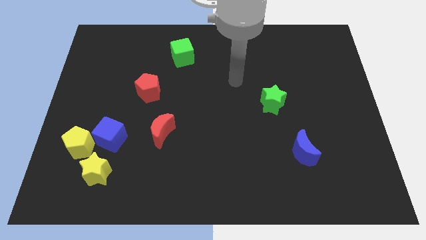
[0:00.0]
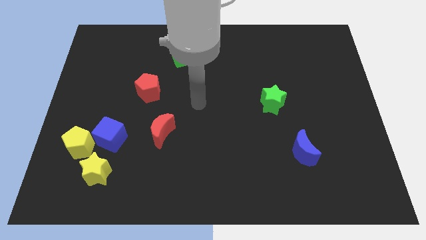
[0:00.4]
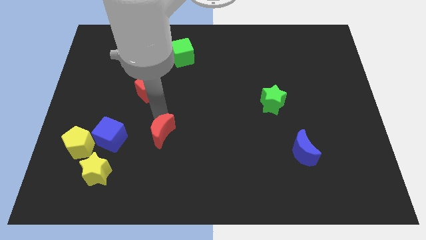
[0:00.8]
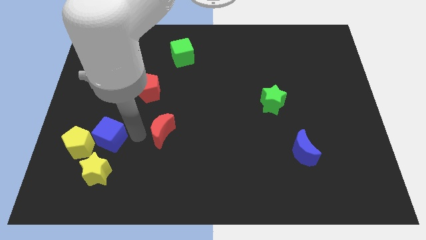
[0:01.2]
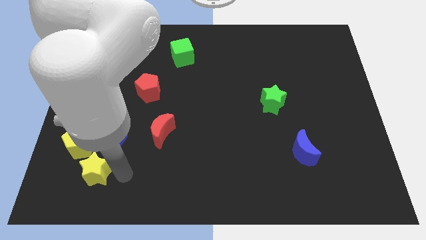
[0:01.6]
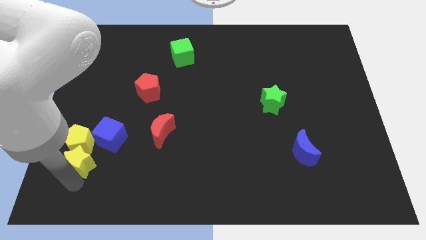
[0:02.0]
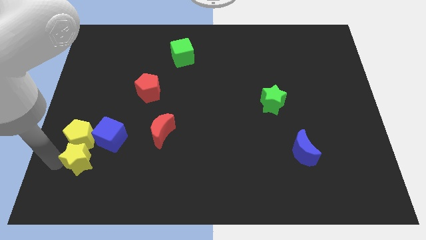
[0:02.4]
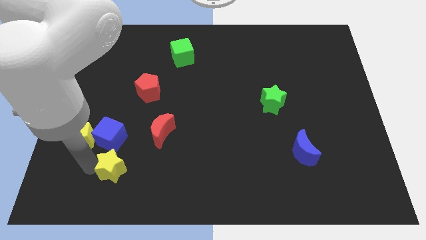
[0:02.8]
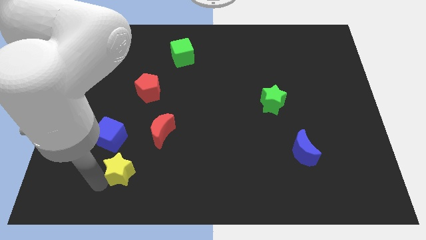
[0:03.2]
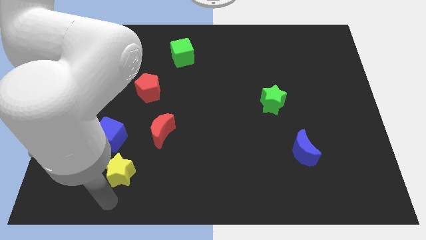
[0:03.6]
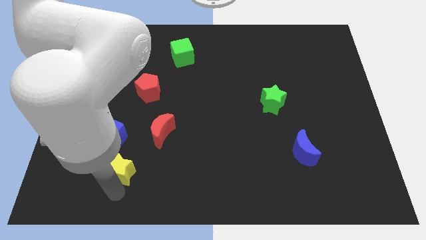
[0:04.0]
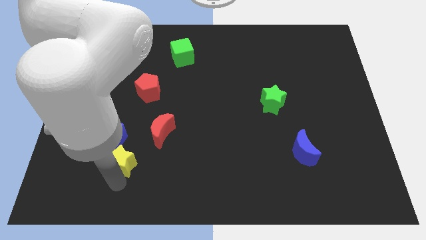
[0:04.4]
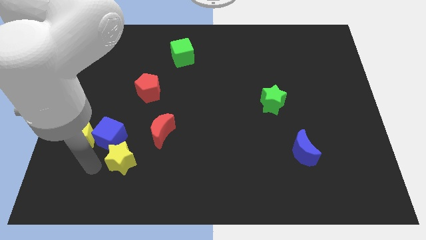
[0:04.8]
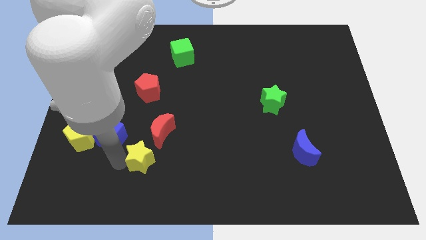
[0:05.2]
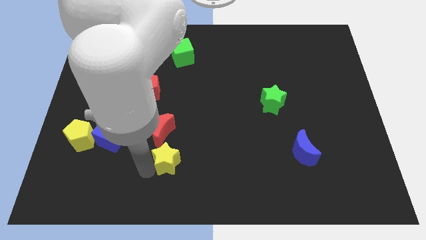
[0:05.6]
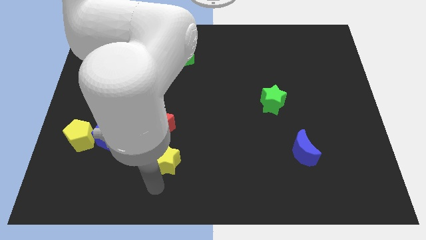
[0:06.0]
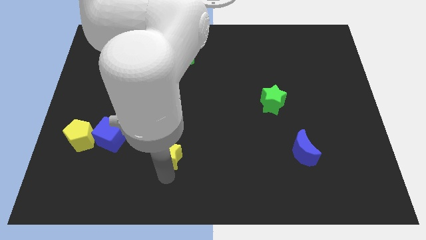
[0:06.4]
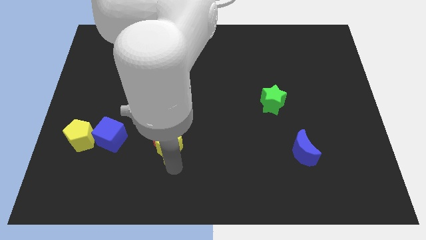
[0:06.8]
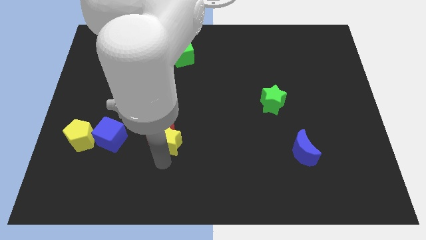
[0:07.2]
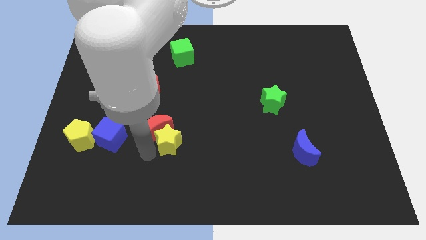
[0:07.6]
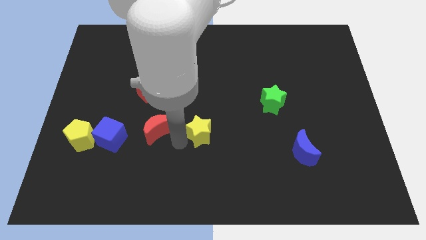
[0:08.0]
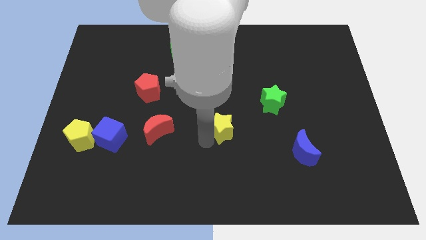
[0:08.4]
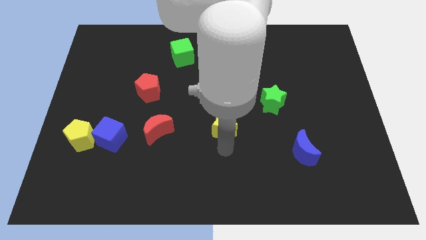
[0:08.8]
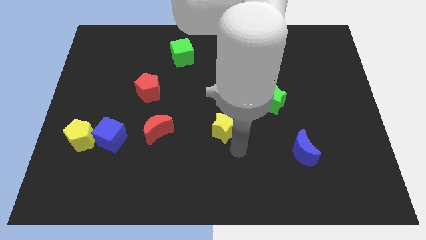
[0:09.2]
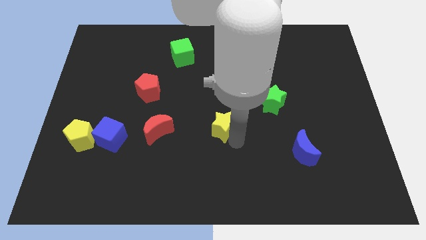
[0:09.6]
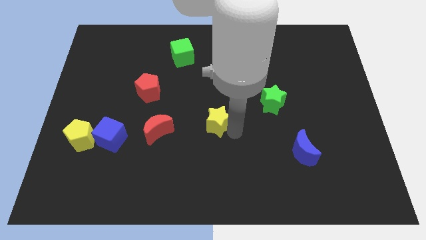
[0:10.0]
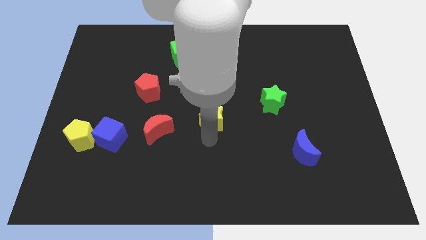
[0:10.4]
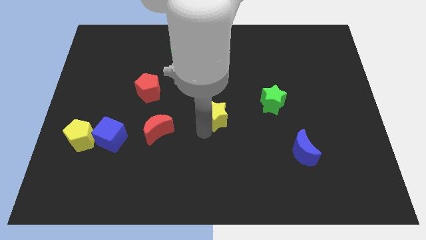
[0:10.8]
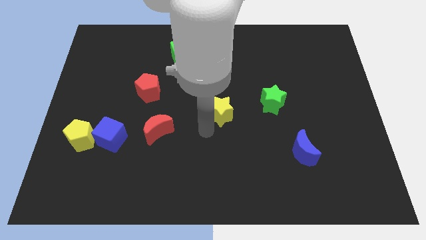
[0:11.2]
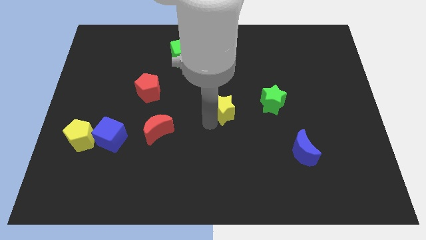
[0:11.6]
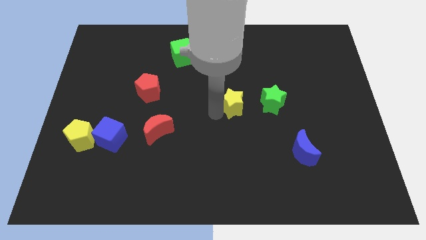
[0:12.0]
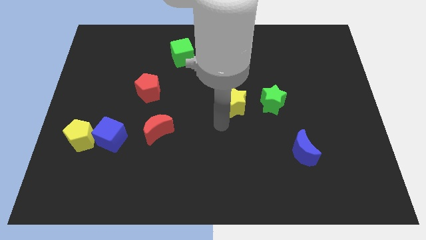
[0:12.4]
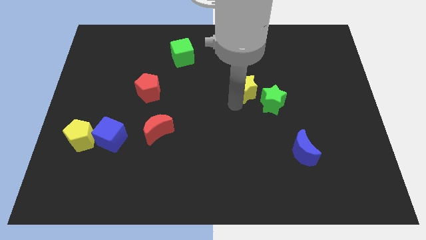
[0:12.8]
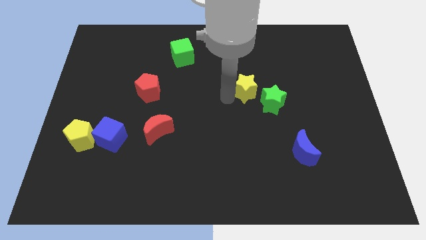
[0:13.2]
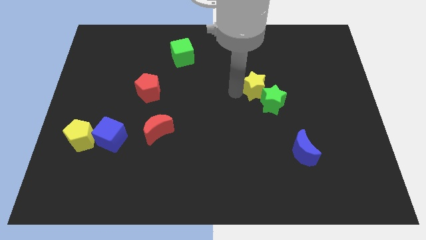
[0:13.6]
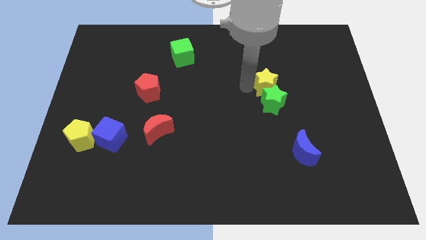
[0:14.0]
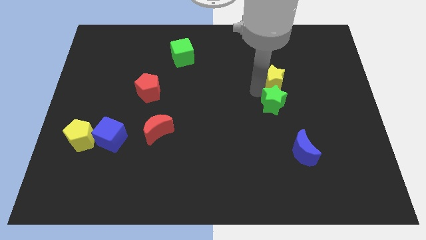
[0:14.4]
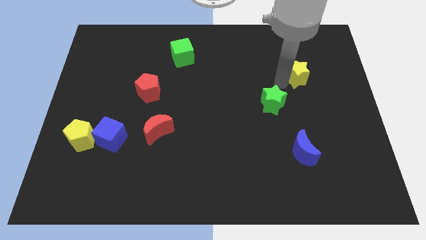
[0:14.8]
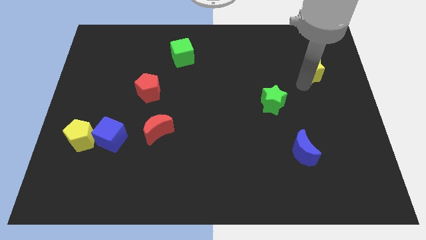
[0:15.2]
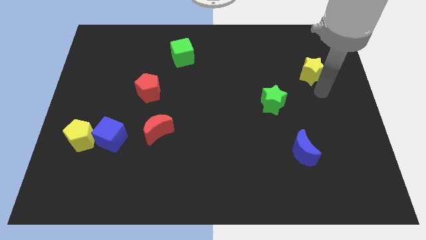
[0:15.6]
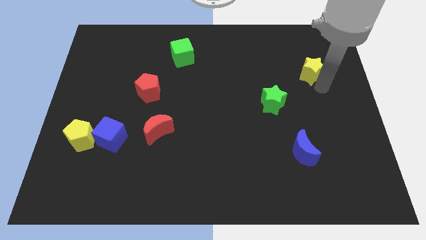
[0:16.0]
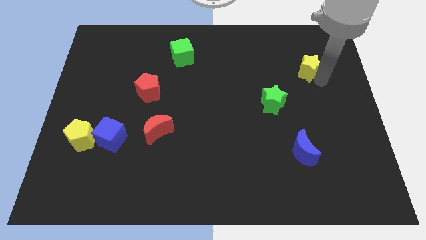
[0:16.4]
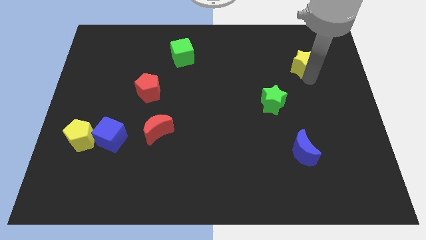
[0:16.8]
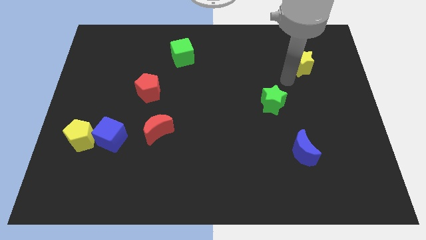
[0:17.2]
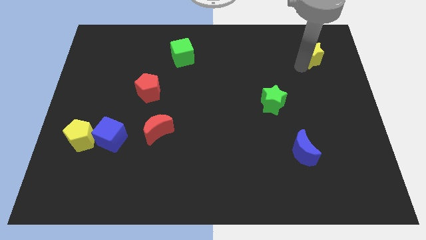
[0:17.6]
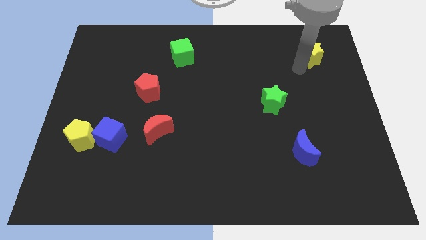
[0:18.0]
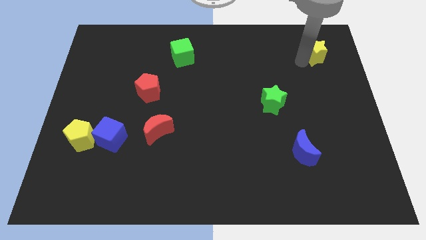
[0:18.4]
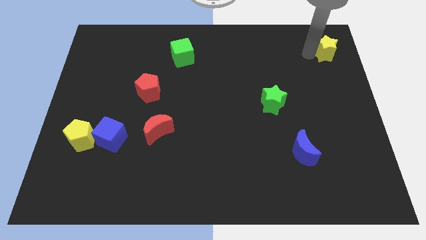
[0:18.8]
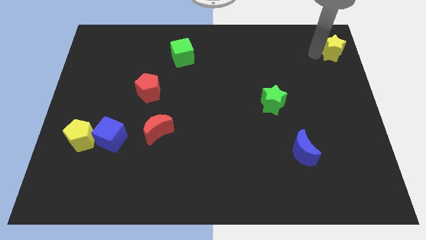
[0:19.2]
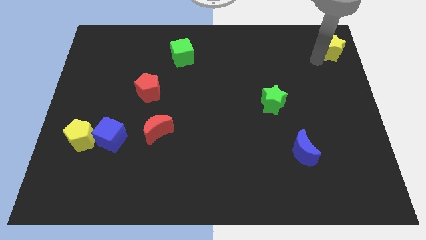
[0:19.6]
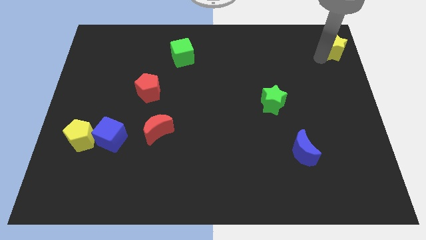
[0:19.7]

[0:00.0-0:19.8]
push the yellow star to the top right corner

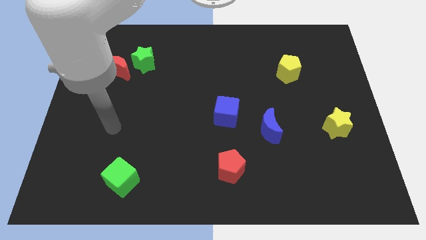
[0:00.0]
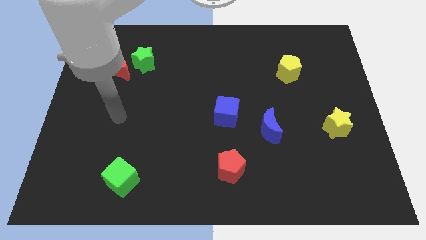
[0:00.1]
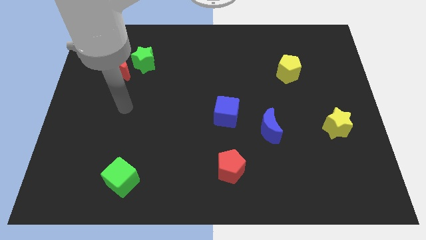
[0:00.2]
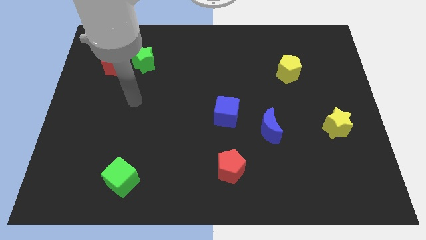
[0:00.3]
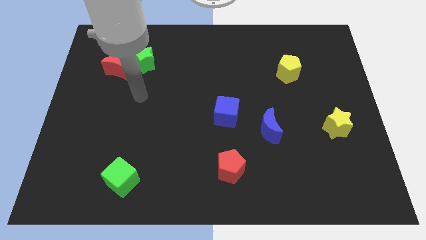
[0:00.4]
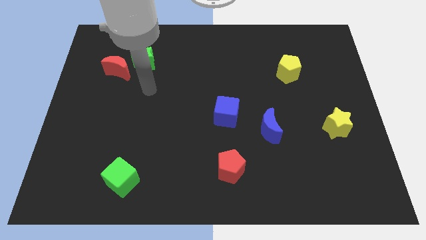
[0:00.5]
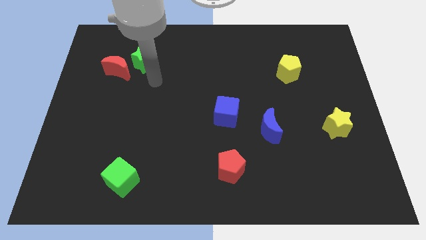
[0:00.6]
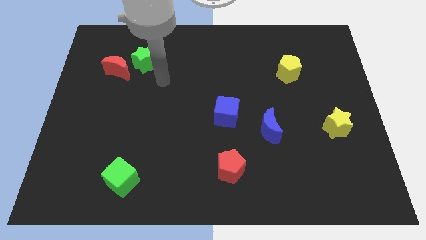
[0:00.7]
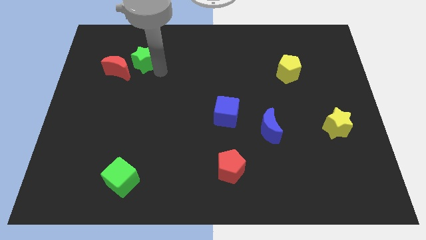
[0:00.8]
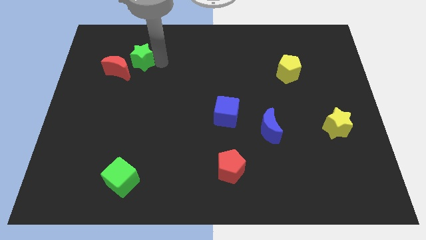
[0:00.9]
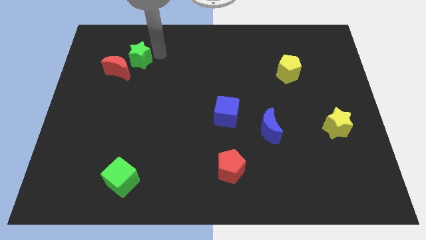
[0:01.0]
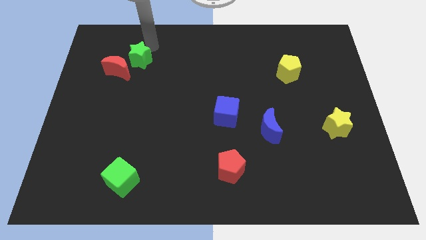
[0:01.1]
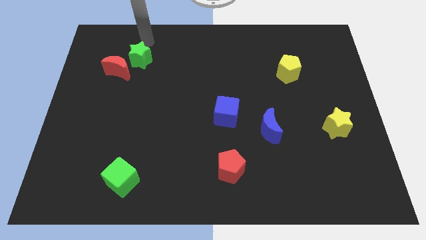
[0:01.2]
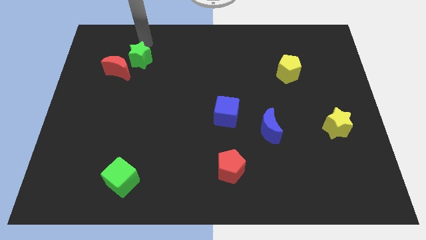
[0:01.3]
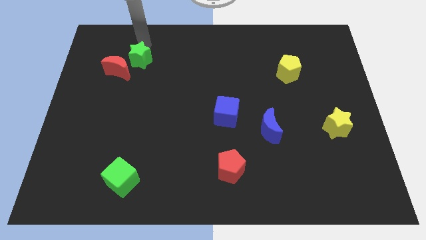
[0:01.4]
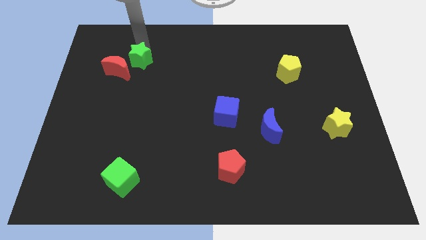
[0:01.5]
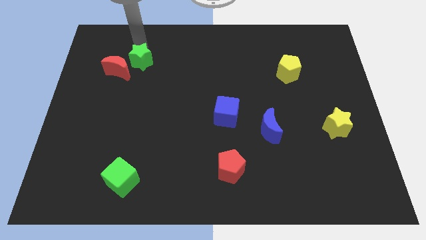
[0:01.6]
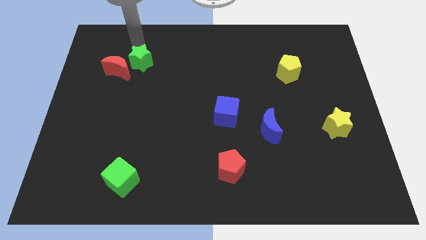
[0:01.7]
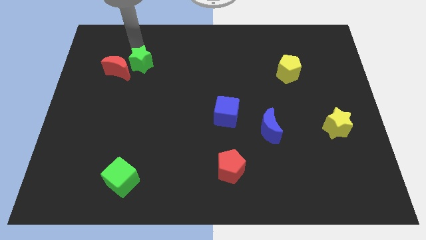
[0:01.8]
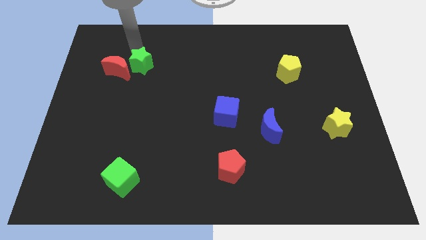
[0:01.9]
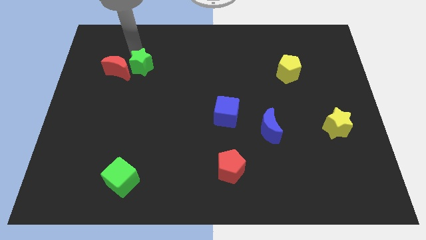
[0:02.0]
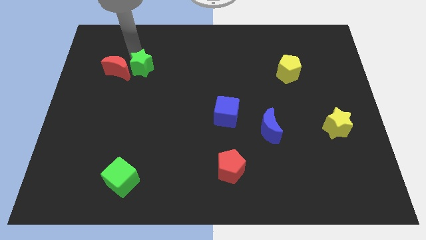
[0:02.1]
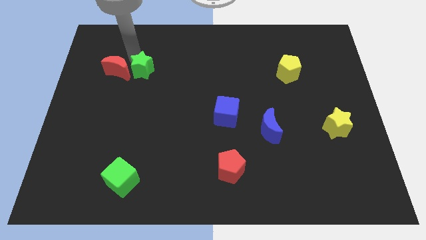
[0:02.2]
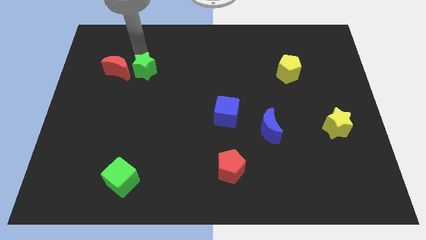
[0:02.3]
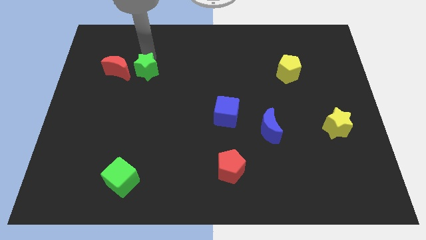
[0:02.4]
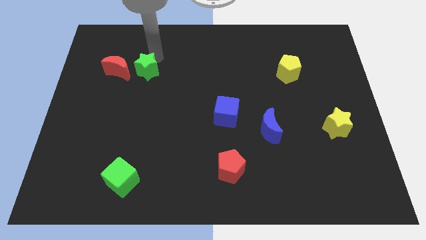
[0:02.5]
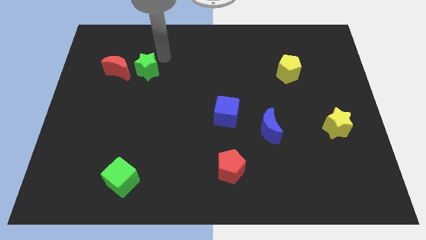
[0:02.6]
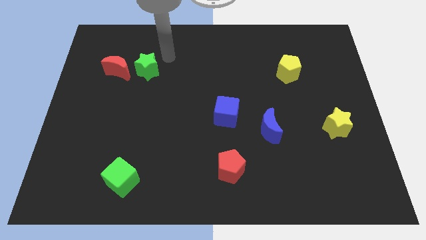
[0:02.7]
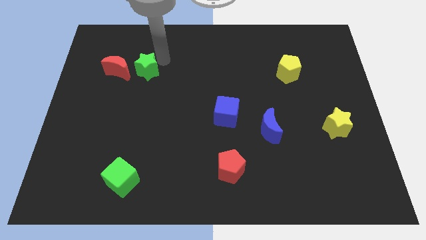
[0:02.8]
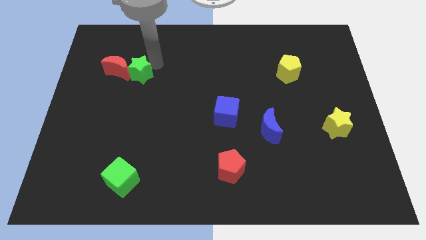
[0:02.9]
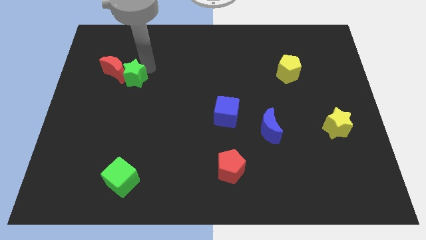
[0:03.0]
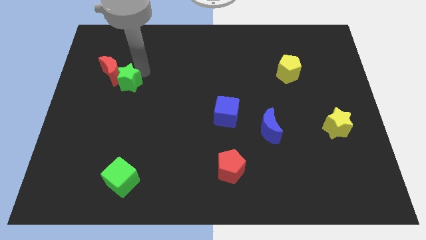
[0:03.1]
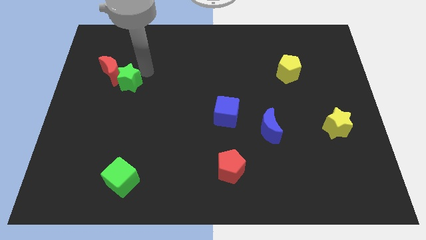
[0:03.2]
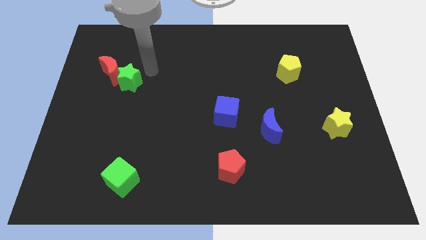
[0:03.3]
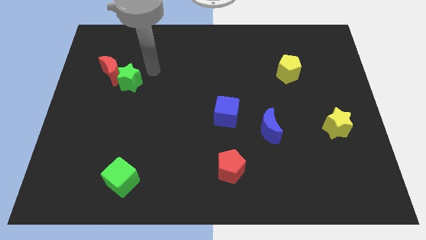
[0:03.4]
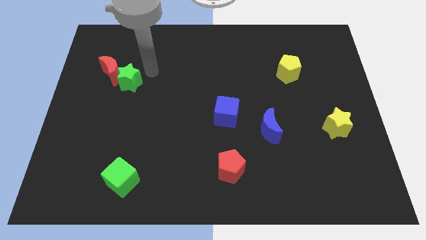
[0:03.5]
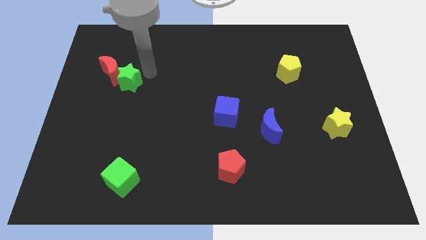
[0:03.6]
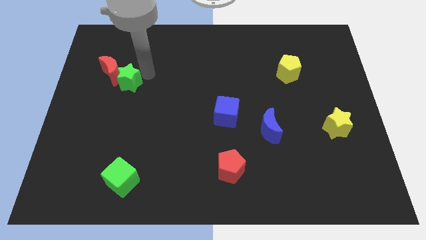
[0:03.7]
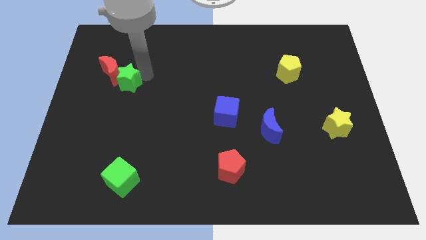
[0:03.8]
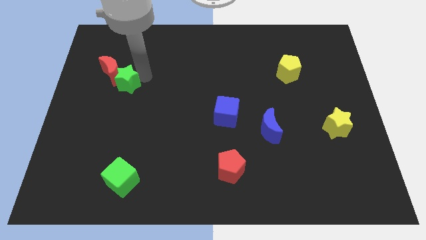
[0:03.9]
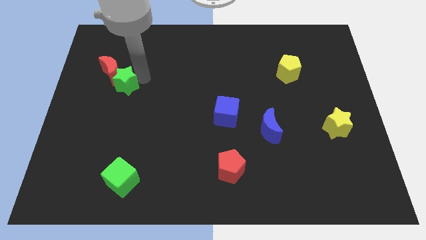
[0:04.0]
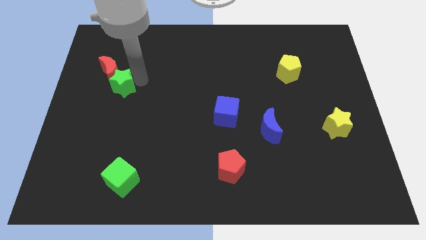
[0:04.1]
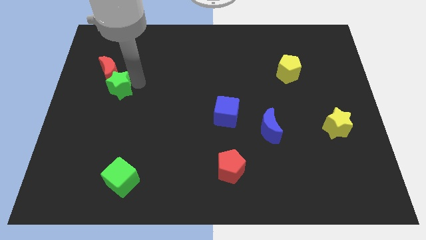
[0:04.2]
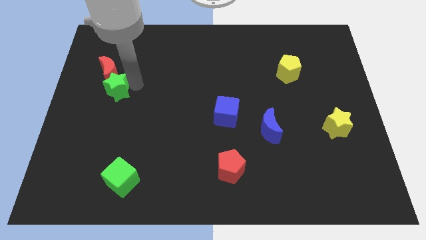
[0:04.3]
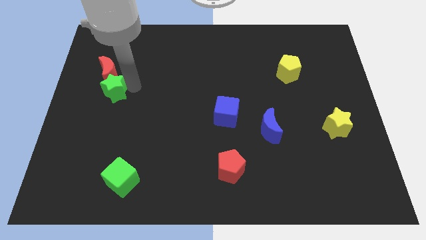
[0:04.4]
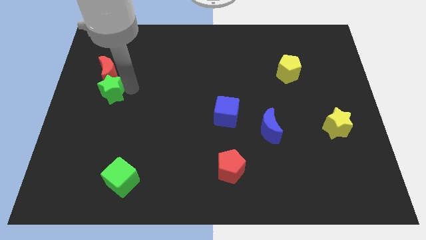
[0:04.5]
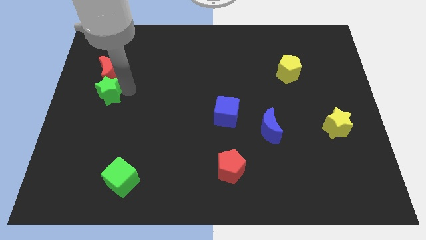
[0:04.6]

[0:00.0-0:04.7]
put the green star to the left side of the board
